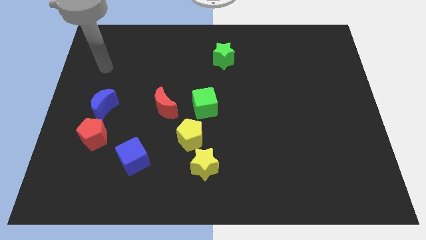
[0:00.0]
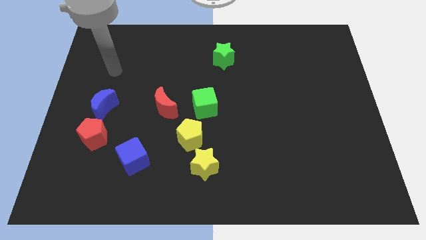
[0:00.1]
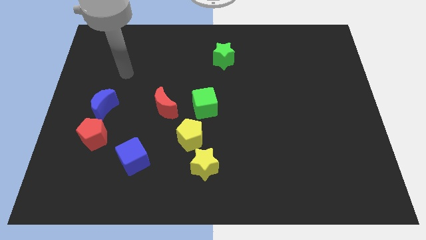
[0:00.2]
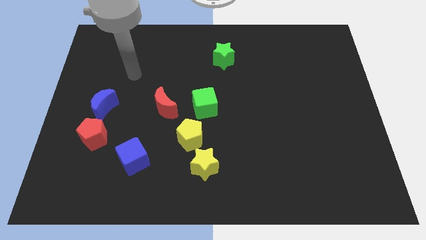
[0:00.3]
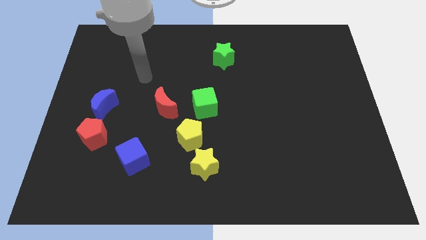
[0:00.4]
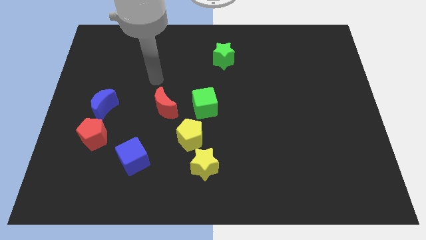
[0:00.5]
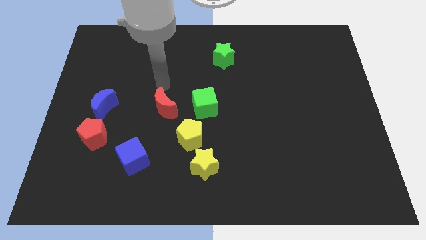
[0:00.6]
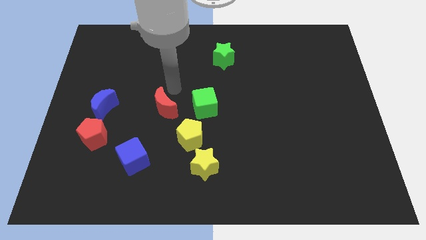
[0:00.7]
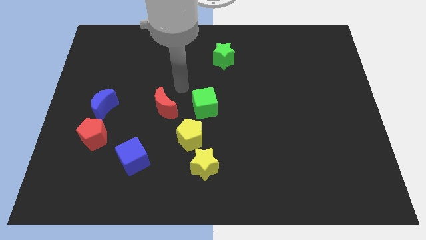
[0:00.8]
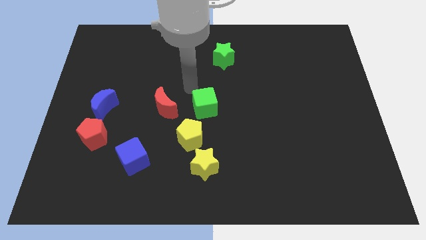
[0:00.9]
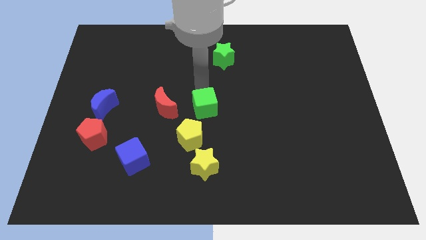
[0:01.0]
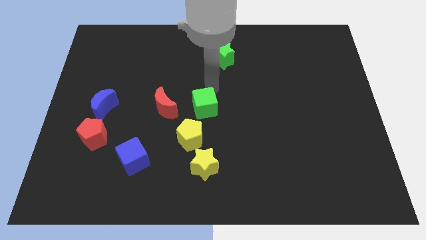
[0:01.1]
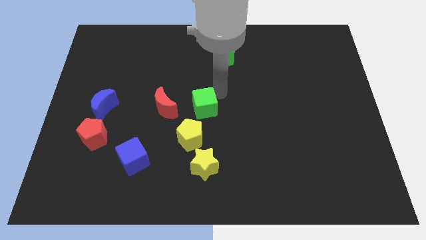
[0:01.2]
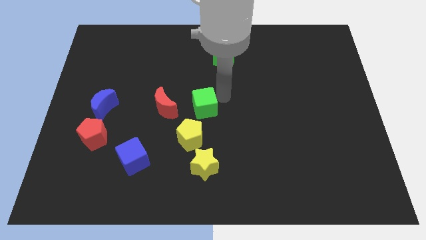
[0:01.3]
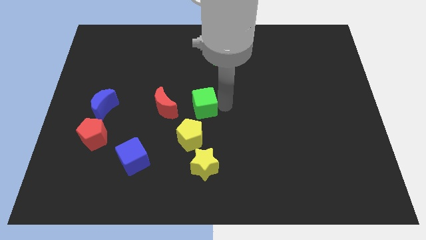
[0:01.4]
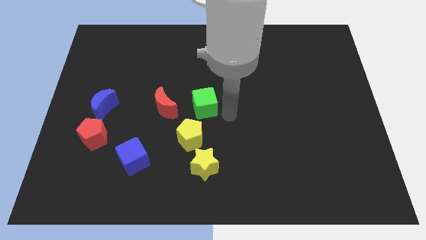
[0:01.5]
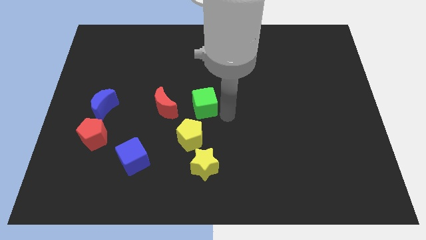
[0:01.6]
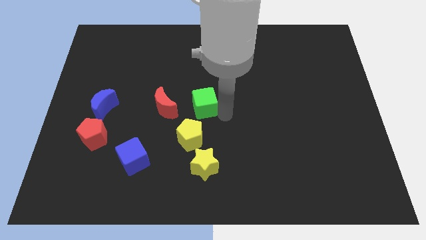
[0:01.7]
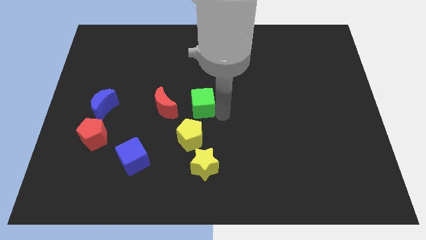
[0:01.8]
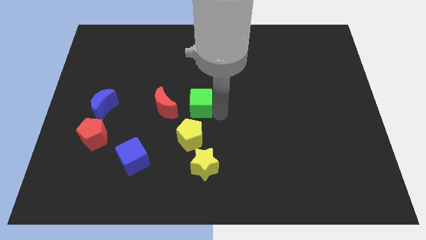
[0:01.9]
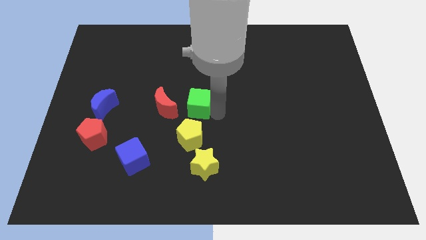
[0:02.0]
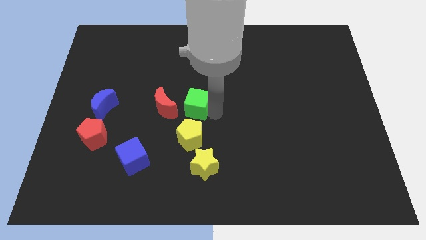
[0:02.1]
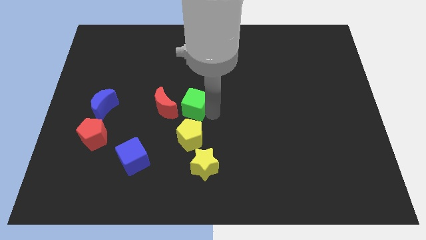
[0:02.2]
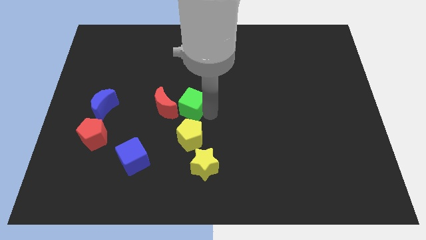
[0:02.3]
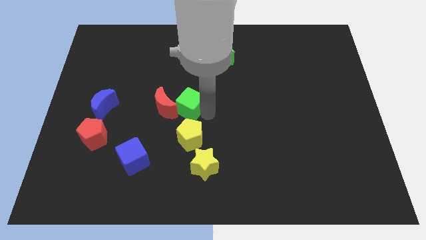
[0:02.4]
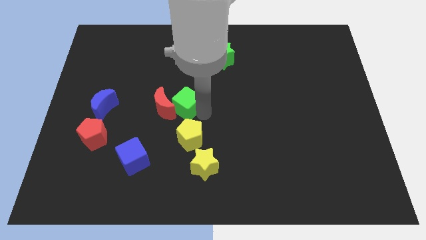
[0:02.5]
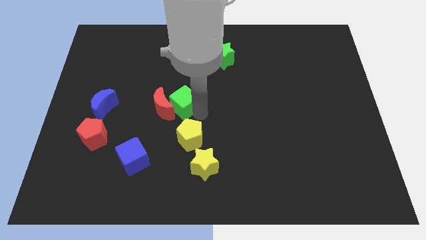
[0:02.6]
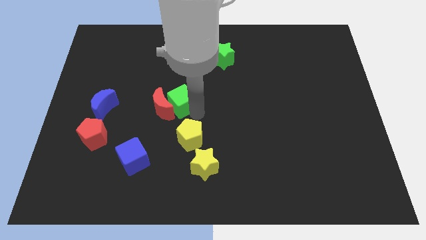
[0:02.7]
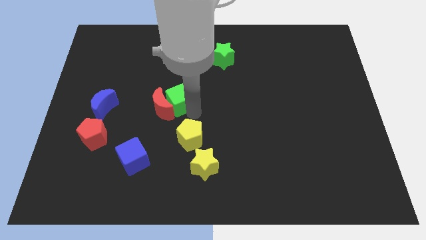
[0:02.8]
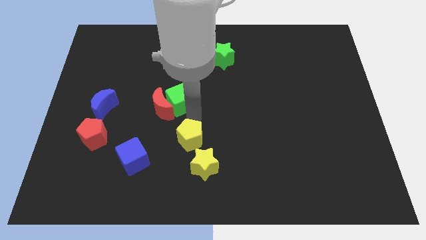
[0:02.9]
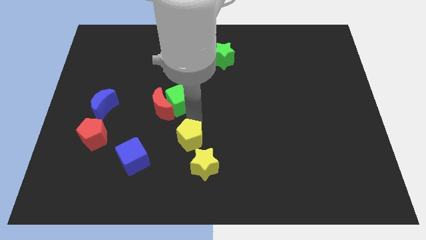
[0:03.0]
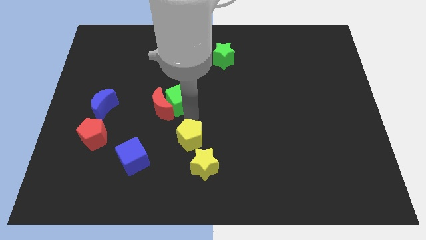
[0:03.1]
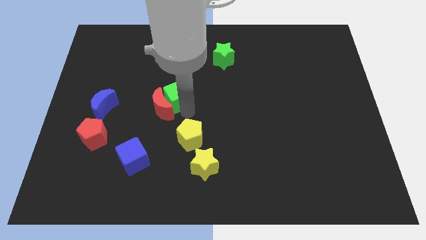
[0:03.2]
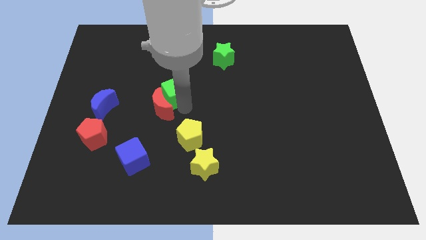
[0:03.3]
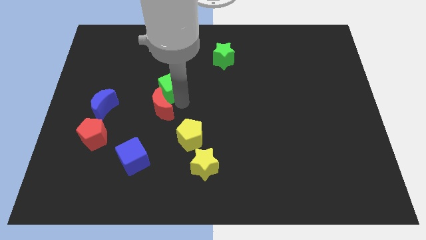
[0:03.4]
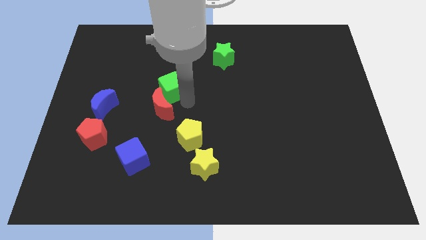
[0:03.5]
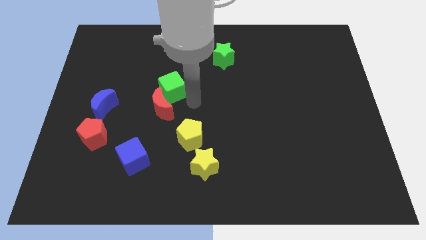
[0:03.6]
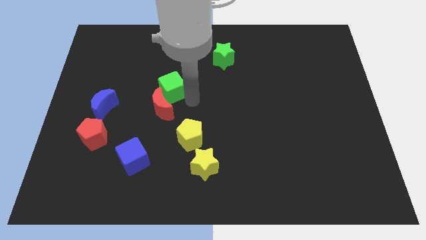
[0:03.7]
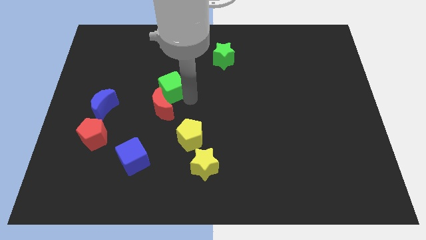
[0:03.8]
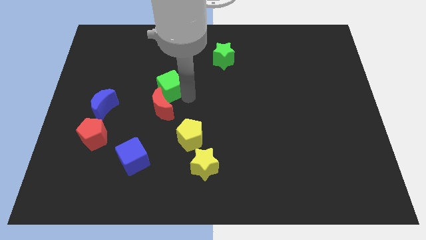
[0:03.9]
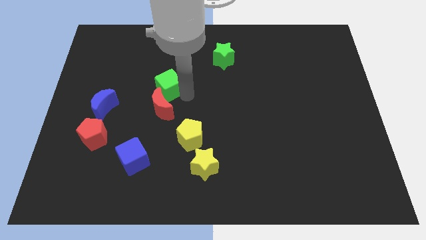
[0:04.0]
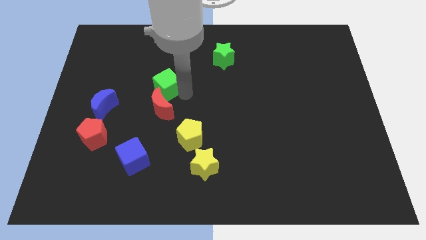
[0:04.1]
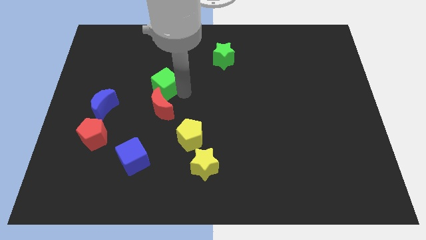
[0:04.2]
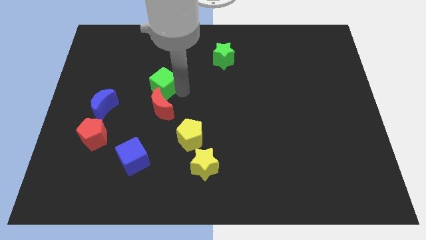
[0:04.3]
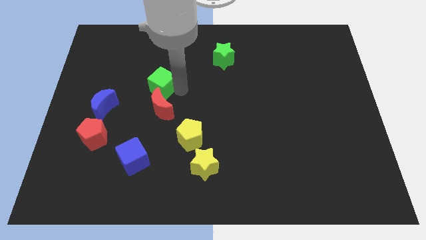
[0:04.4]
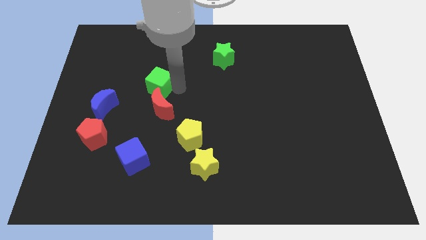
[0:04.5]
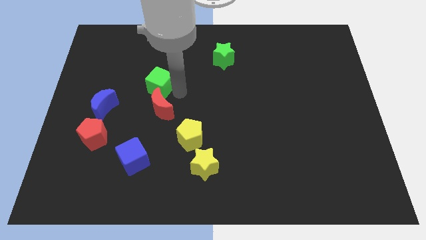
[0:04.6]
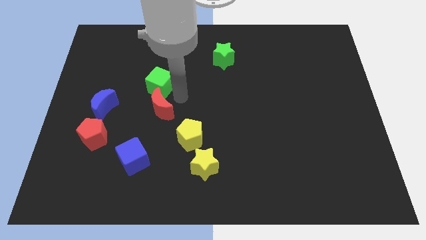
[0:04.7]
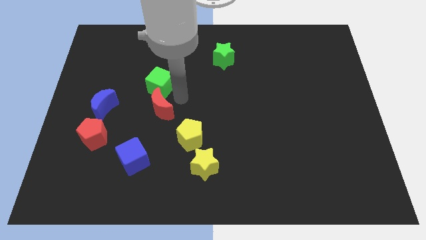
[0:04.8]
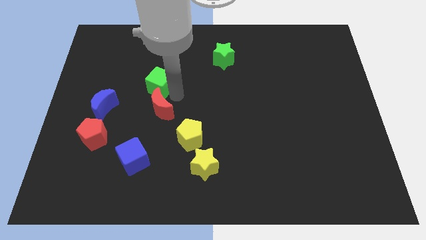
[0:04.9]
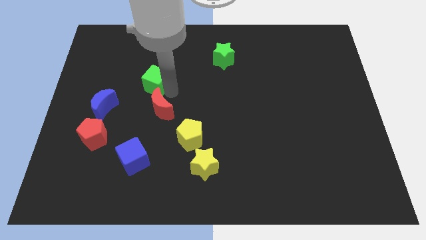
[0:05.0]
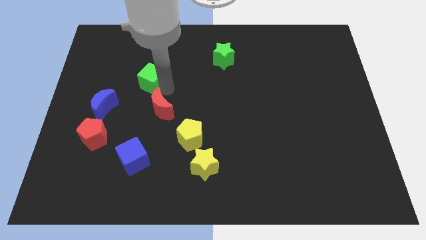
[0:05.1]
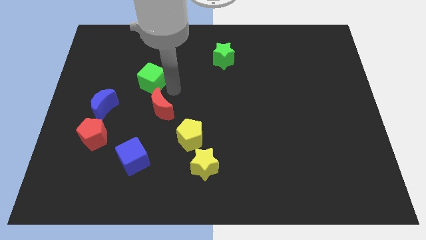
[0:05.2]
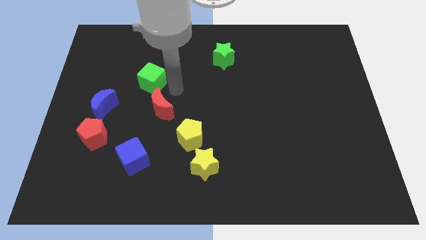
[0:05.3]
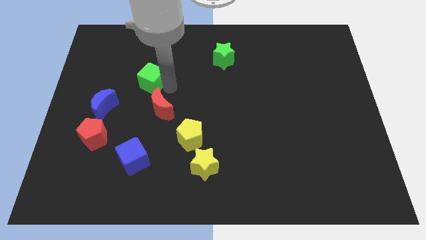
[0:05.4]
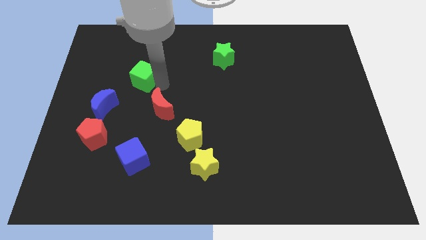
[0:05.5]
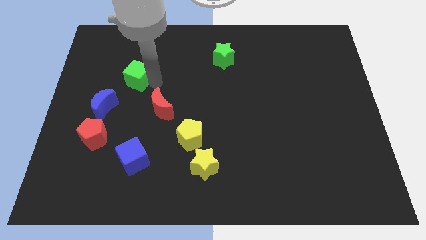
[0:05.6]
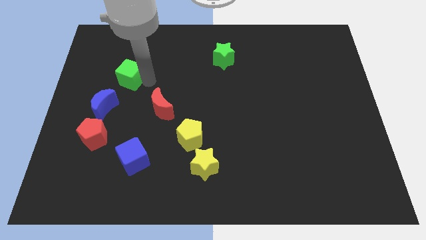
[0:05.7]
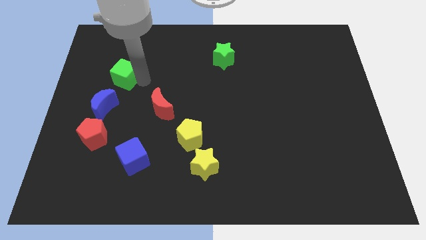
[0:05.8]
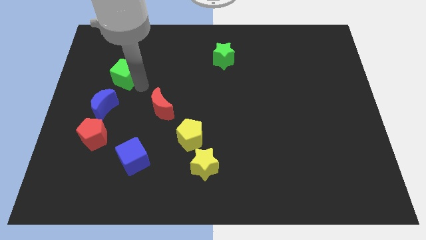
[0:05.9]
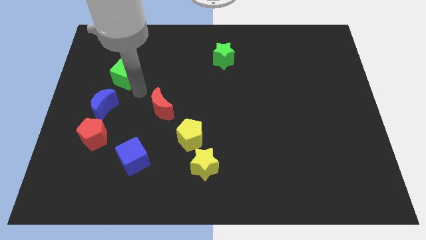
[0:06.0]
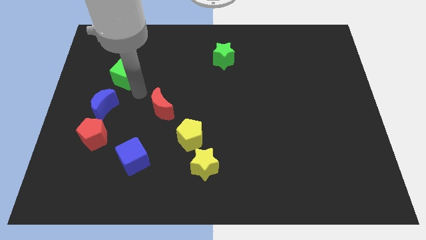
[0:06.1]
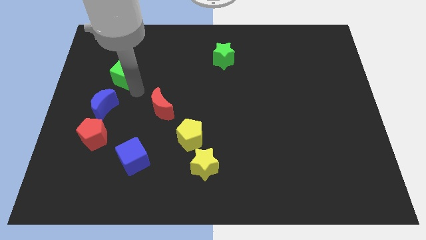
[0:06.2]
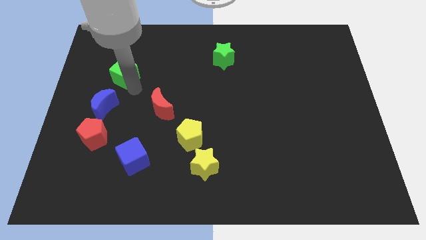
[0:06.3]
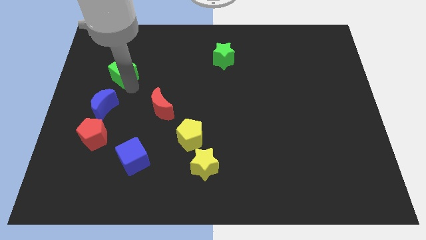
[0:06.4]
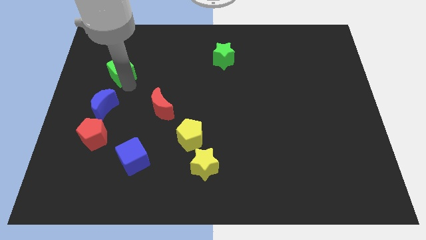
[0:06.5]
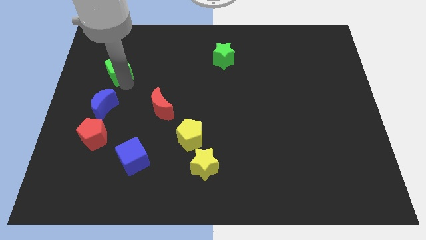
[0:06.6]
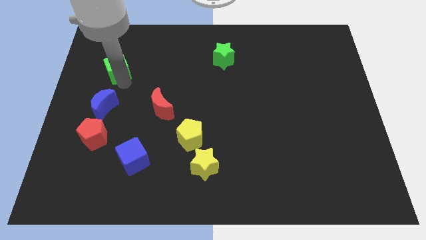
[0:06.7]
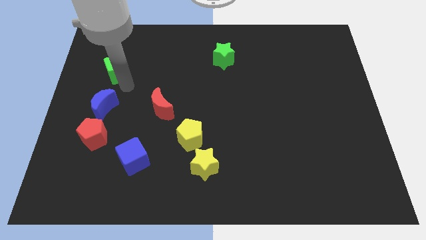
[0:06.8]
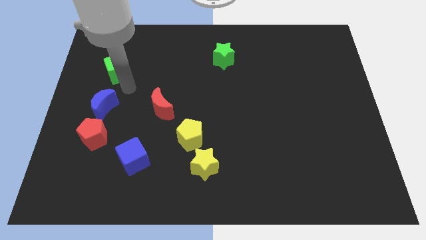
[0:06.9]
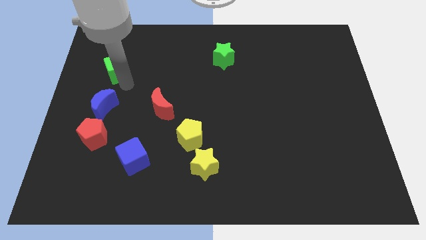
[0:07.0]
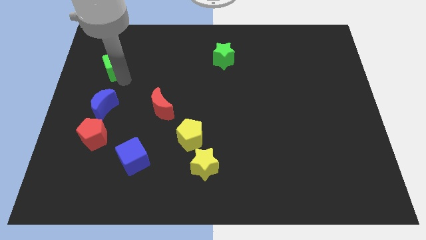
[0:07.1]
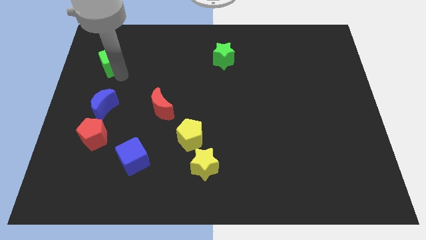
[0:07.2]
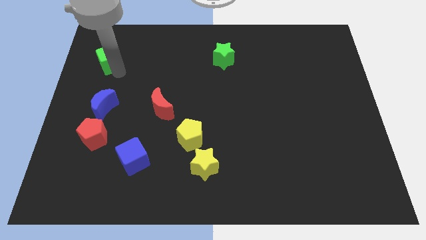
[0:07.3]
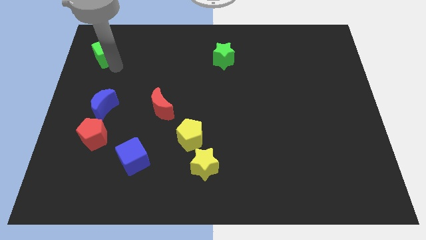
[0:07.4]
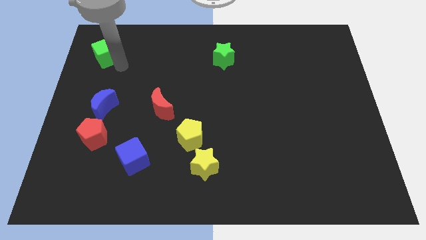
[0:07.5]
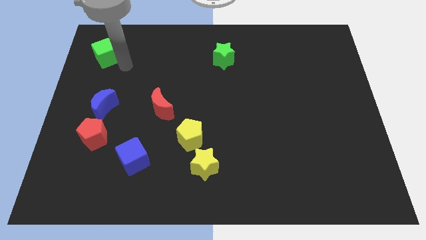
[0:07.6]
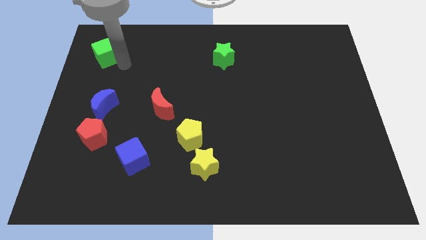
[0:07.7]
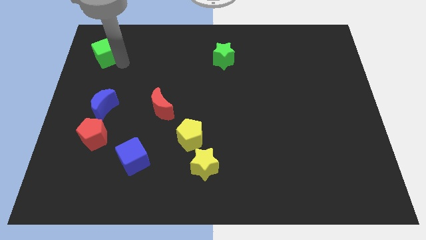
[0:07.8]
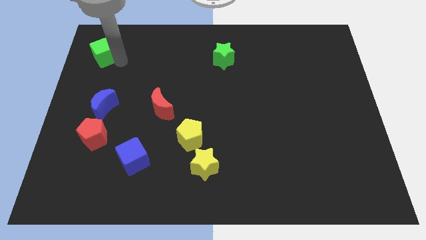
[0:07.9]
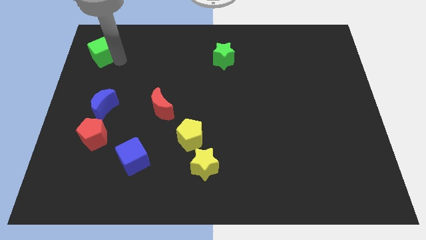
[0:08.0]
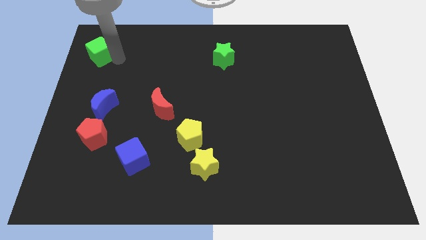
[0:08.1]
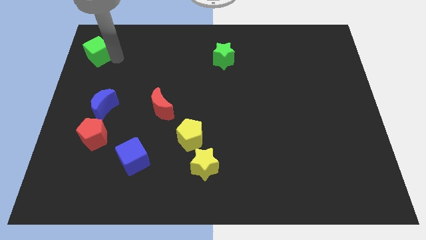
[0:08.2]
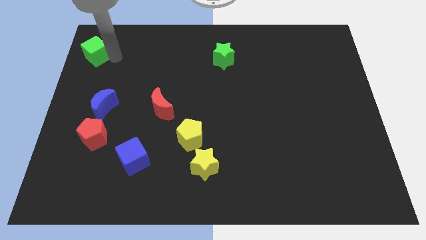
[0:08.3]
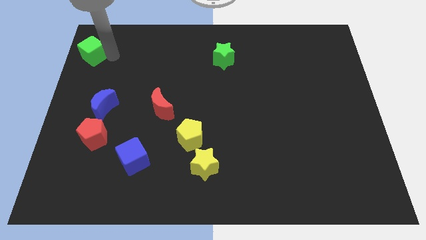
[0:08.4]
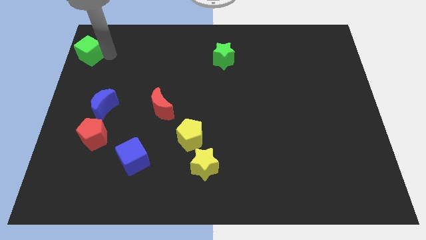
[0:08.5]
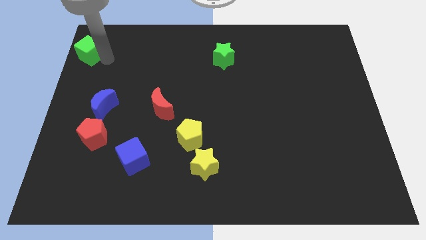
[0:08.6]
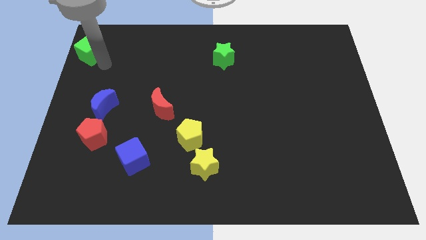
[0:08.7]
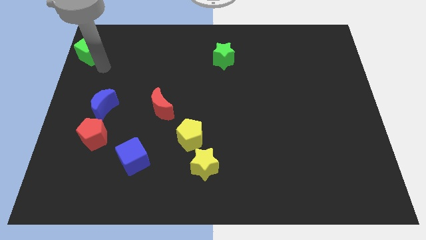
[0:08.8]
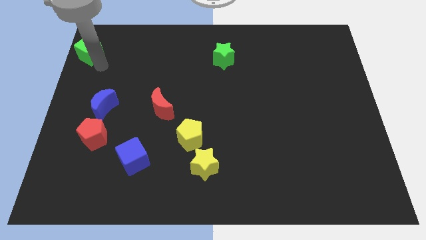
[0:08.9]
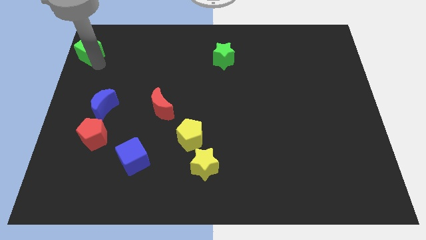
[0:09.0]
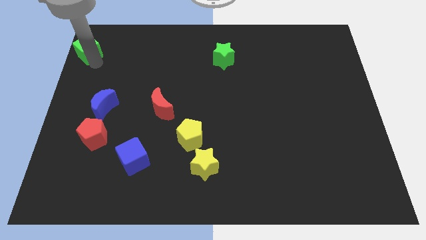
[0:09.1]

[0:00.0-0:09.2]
put the green cube to the top left corner
